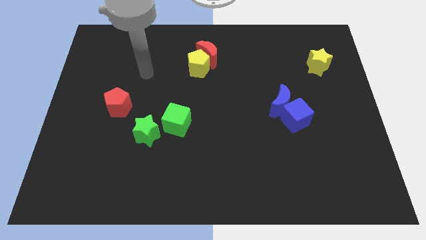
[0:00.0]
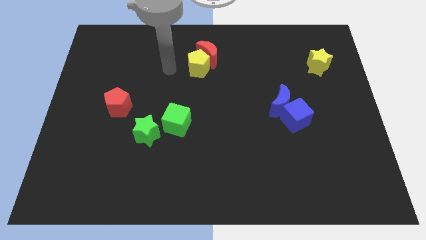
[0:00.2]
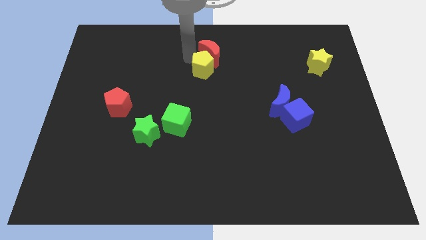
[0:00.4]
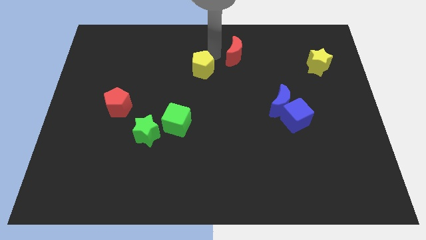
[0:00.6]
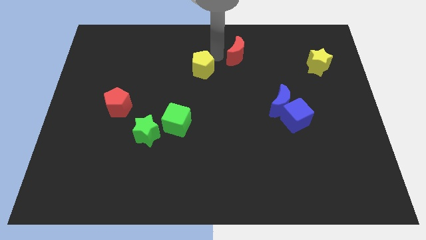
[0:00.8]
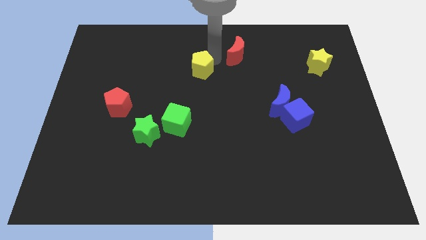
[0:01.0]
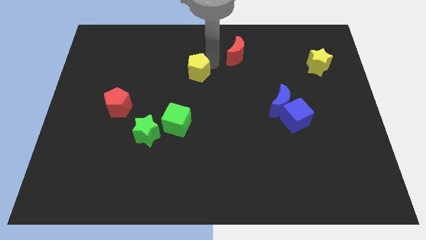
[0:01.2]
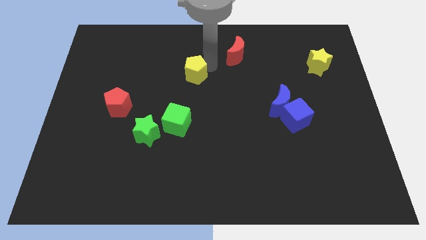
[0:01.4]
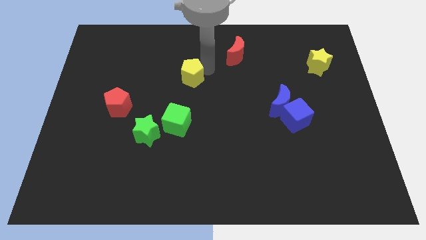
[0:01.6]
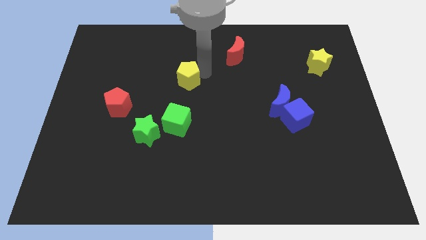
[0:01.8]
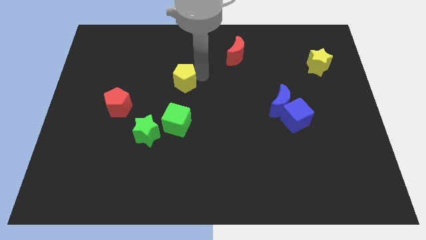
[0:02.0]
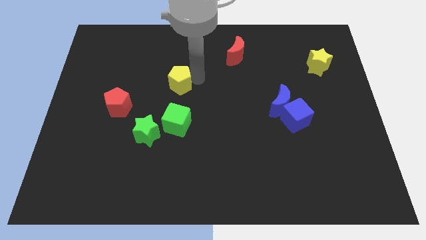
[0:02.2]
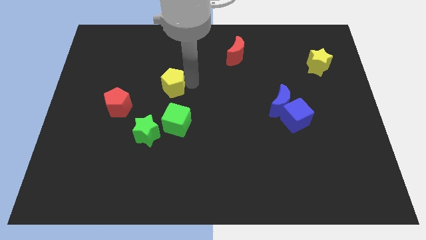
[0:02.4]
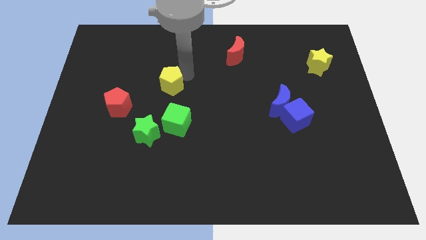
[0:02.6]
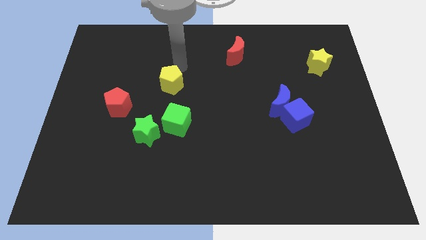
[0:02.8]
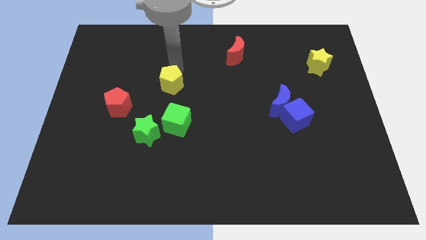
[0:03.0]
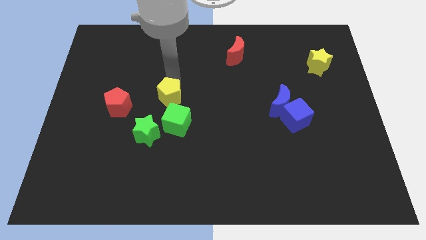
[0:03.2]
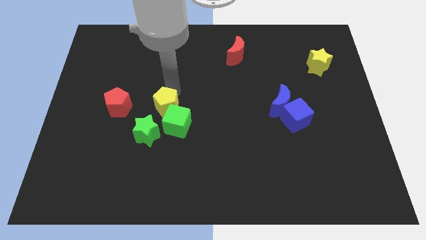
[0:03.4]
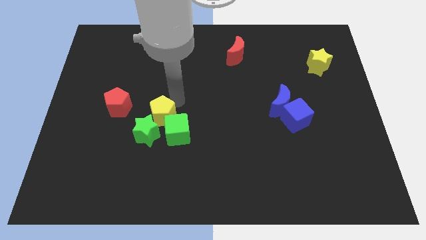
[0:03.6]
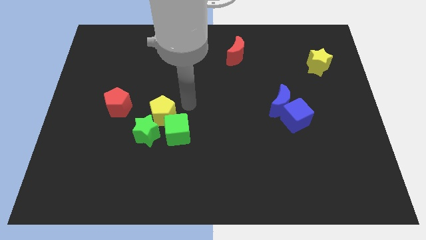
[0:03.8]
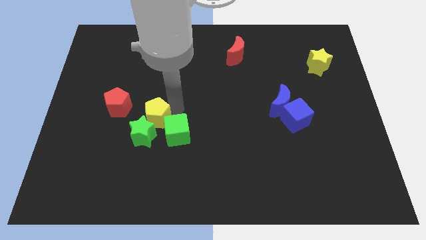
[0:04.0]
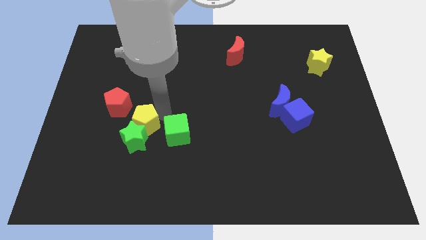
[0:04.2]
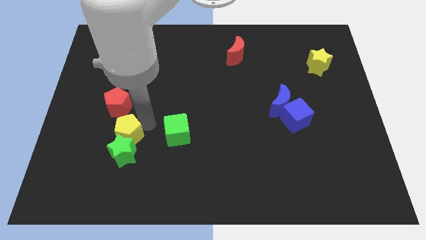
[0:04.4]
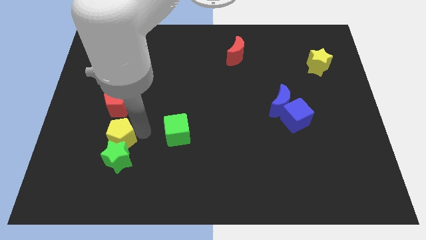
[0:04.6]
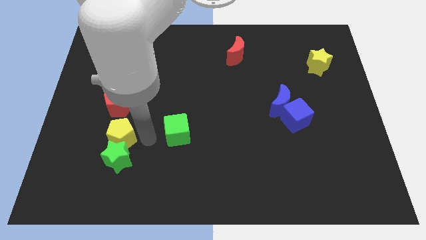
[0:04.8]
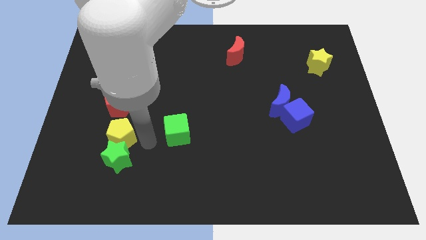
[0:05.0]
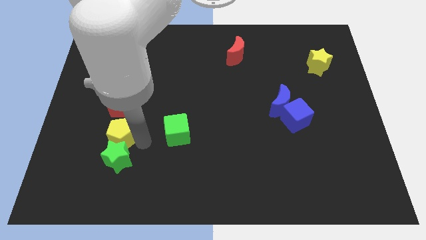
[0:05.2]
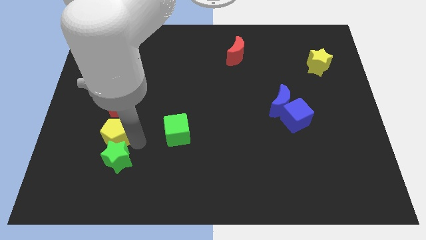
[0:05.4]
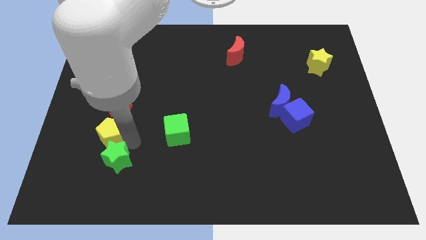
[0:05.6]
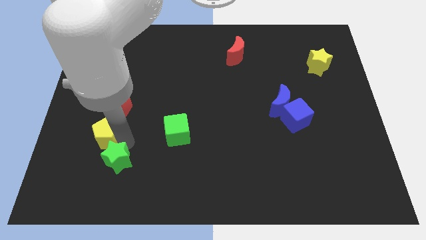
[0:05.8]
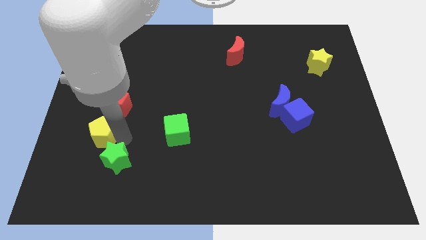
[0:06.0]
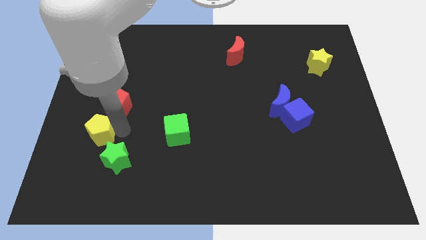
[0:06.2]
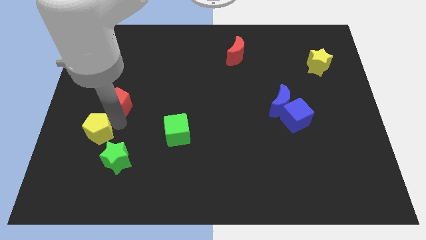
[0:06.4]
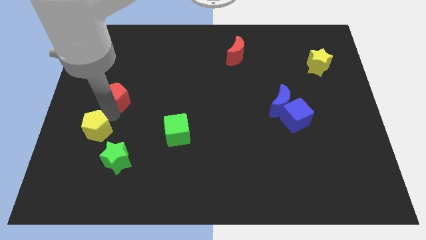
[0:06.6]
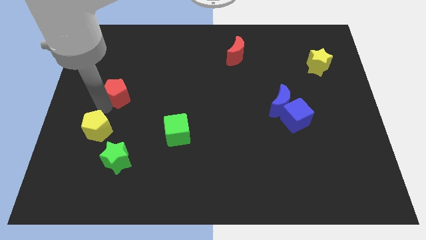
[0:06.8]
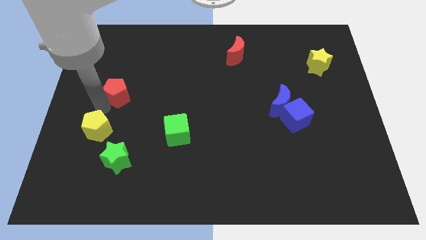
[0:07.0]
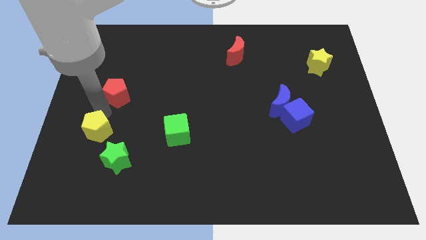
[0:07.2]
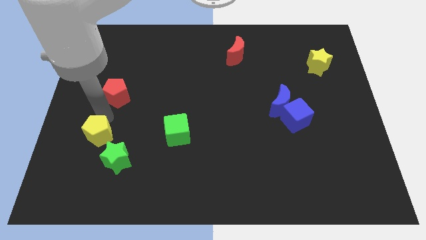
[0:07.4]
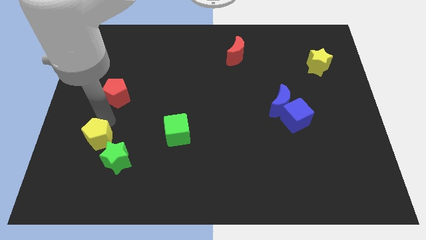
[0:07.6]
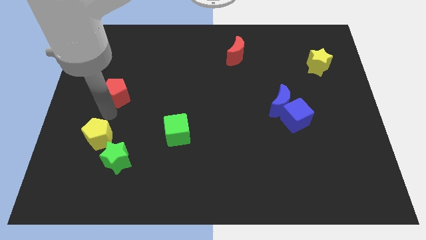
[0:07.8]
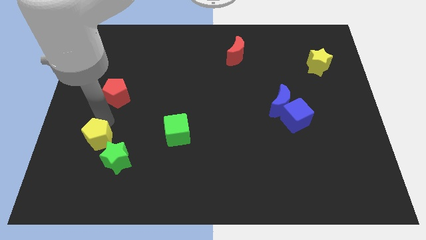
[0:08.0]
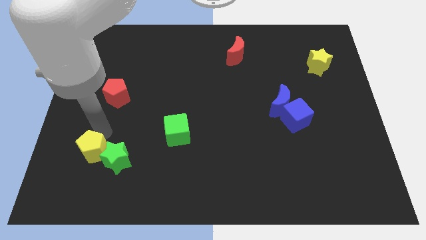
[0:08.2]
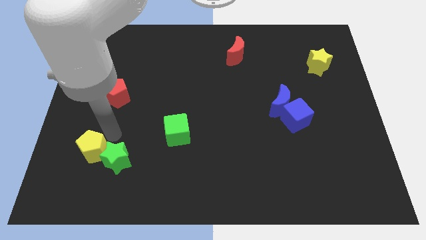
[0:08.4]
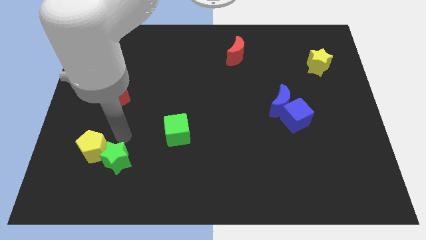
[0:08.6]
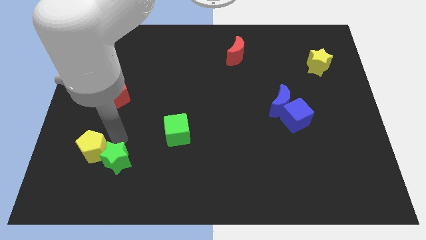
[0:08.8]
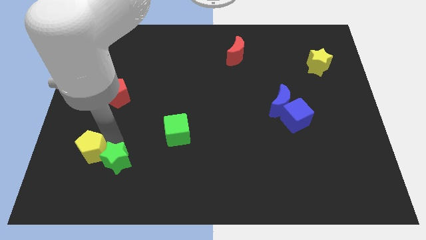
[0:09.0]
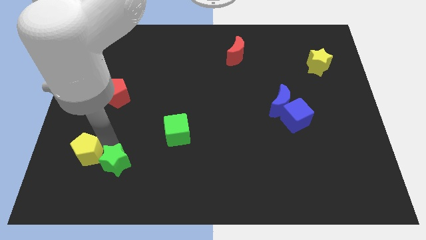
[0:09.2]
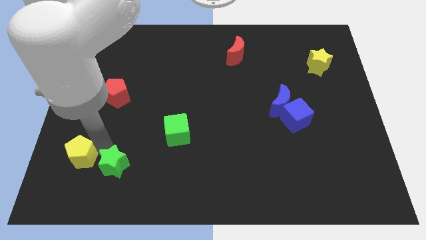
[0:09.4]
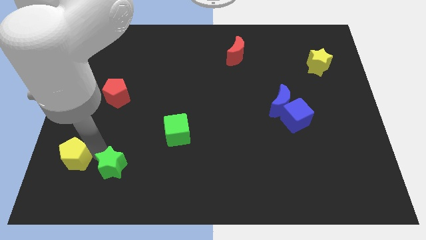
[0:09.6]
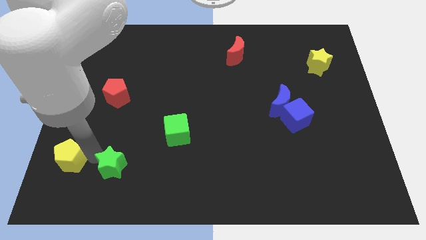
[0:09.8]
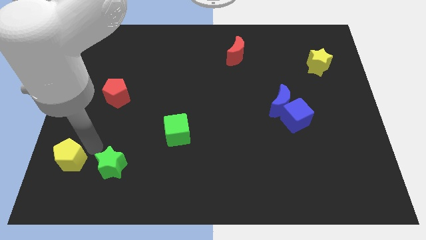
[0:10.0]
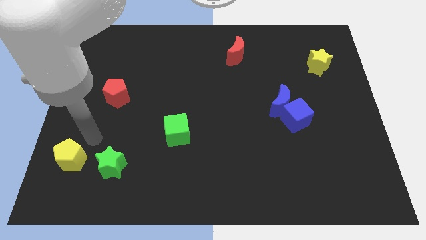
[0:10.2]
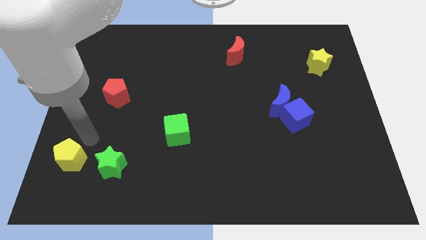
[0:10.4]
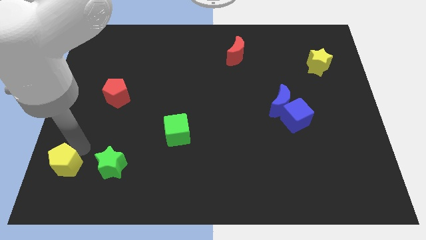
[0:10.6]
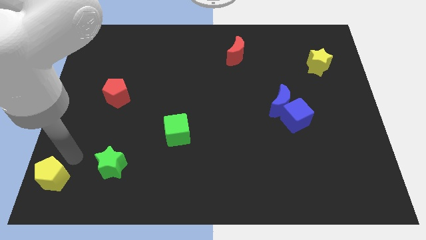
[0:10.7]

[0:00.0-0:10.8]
slide the yellow pentagon to the lower left corner

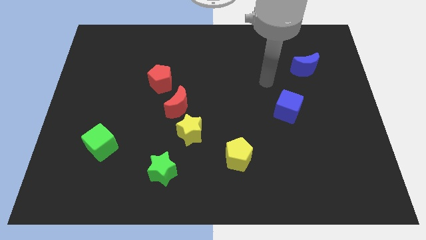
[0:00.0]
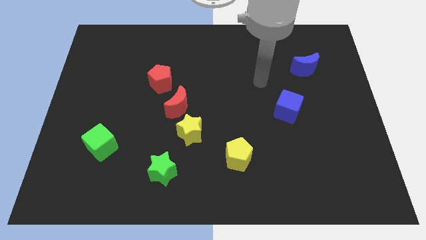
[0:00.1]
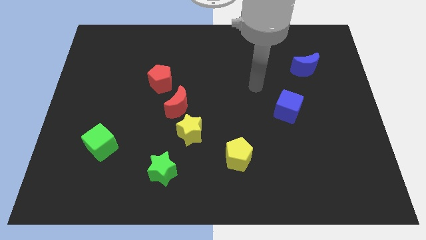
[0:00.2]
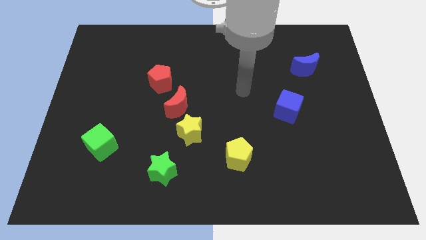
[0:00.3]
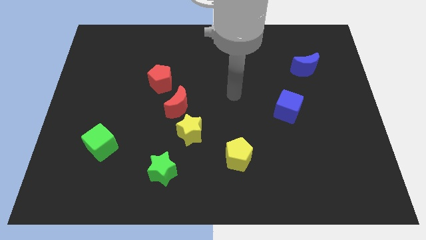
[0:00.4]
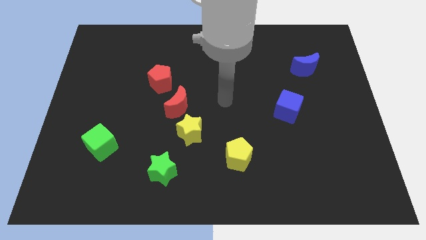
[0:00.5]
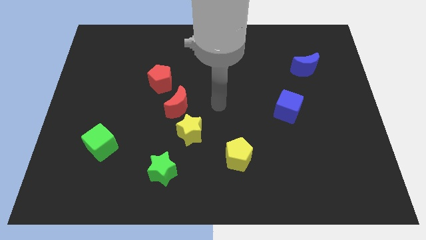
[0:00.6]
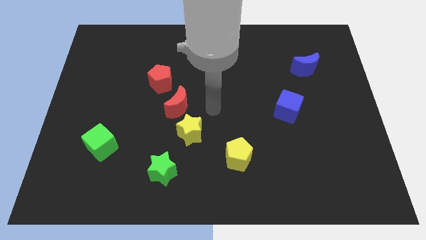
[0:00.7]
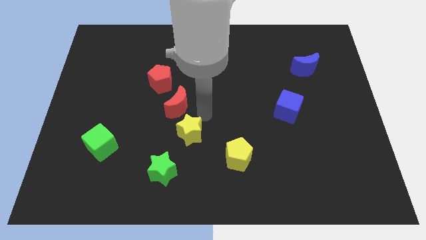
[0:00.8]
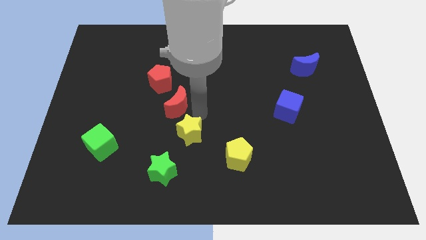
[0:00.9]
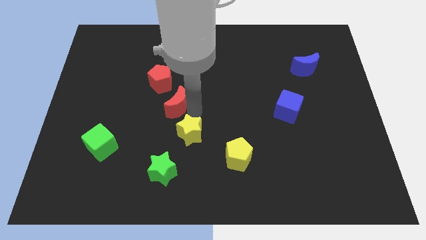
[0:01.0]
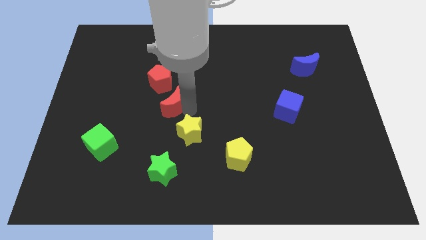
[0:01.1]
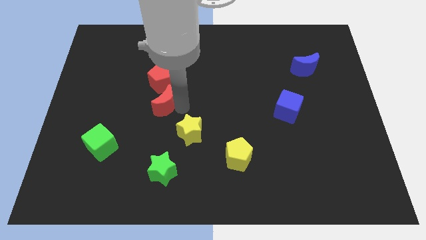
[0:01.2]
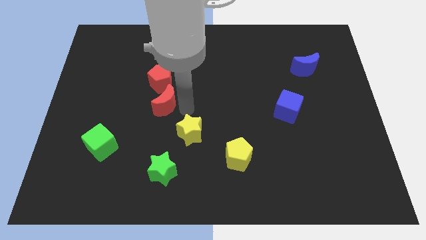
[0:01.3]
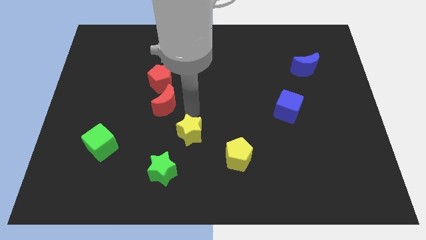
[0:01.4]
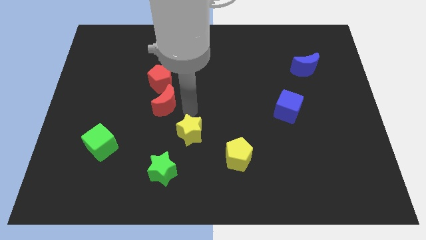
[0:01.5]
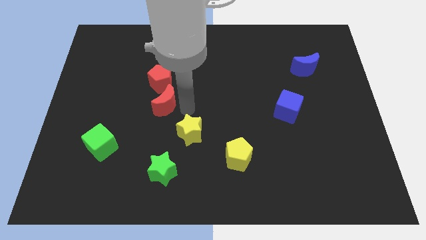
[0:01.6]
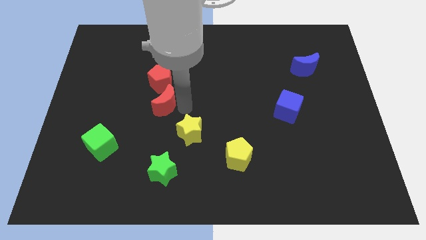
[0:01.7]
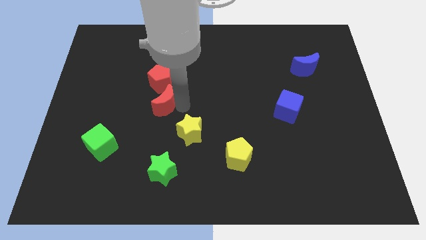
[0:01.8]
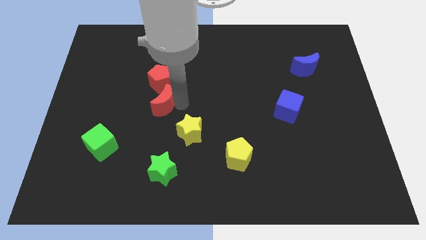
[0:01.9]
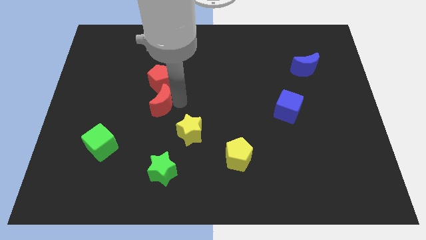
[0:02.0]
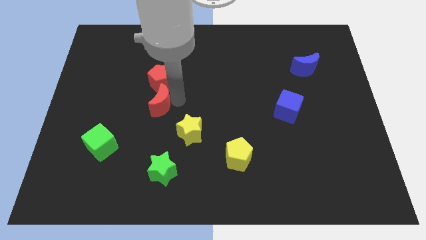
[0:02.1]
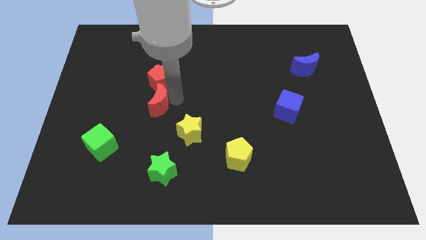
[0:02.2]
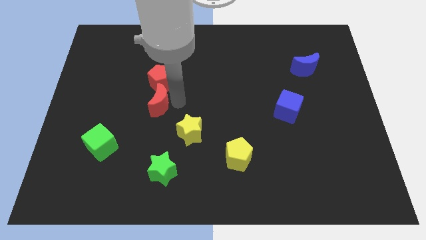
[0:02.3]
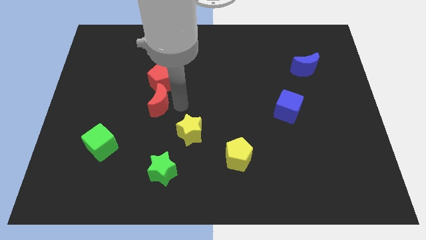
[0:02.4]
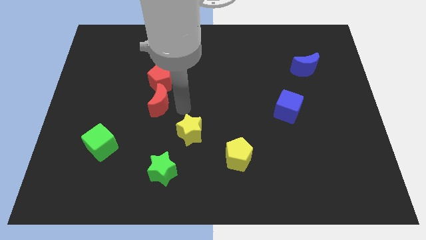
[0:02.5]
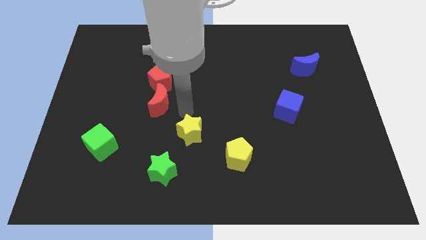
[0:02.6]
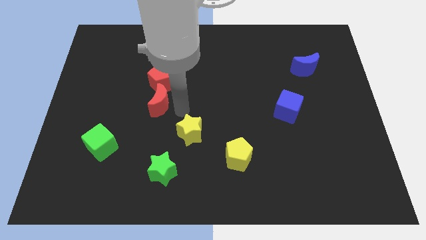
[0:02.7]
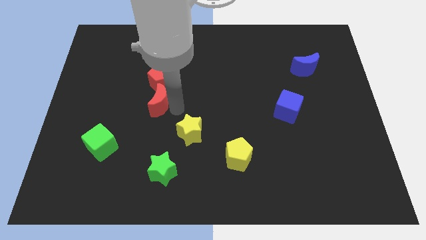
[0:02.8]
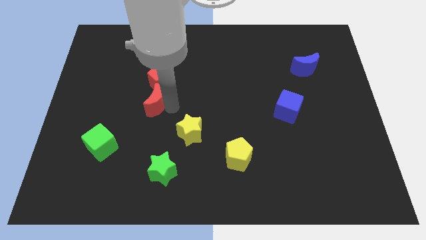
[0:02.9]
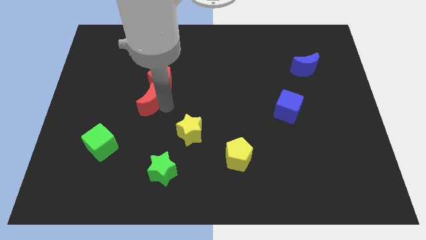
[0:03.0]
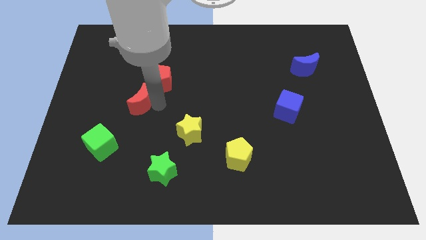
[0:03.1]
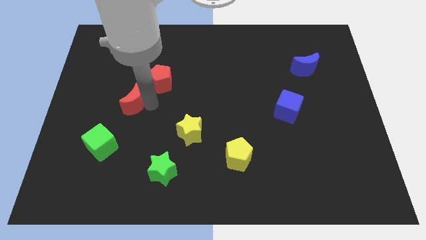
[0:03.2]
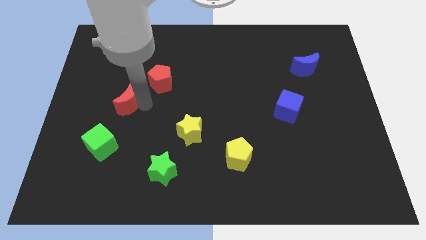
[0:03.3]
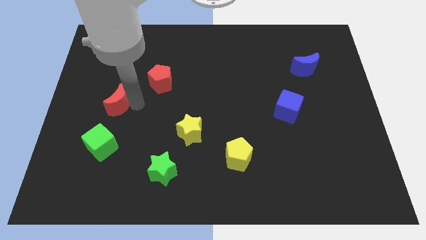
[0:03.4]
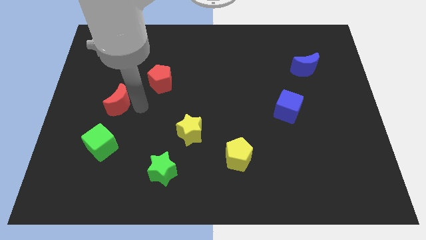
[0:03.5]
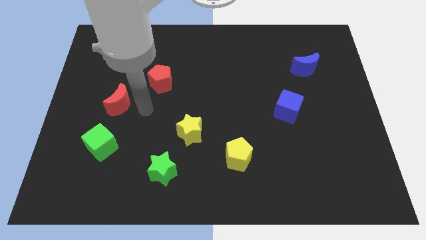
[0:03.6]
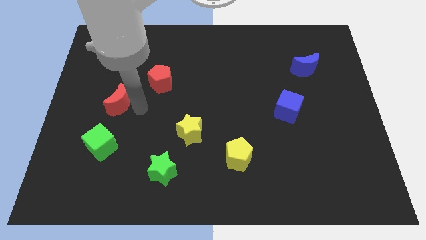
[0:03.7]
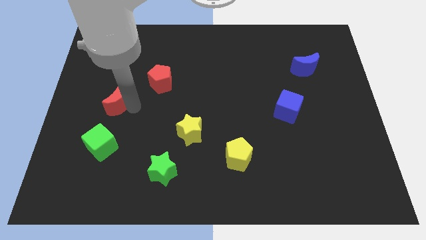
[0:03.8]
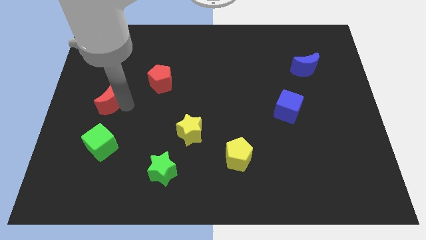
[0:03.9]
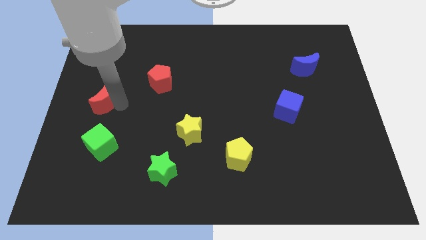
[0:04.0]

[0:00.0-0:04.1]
slide the red moon to the left side
